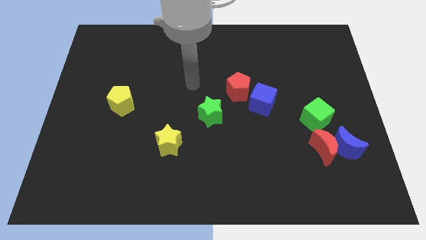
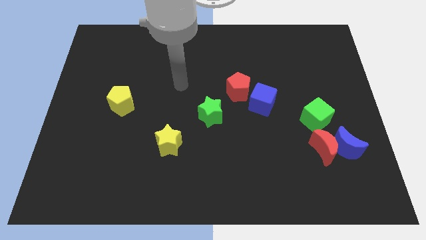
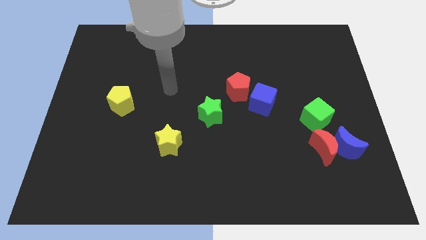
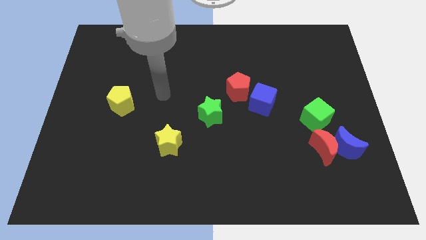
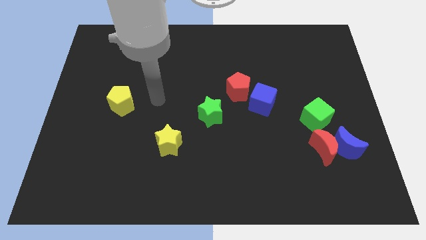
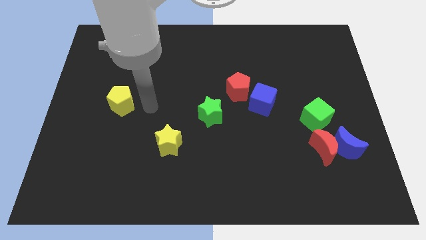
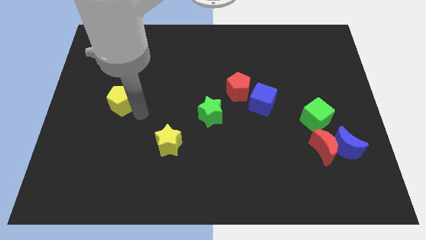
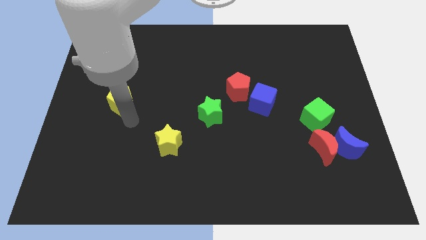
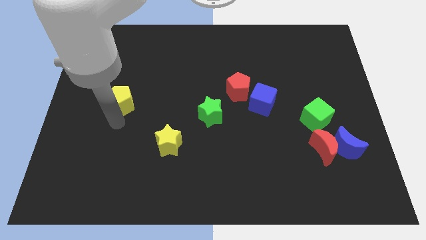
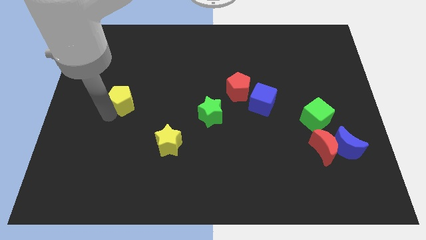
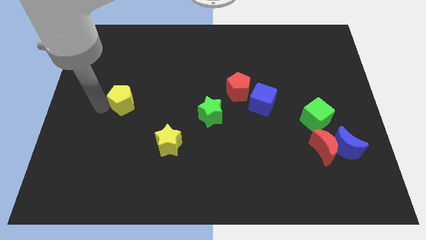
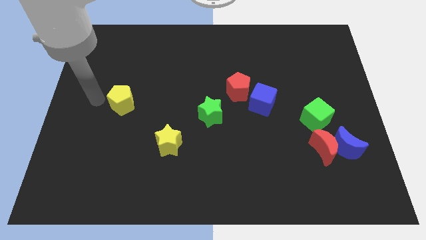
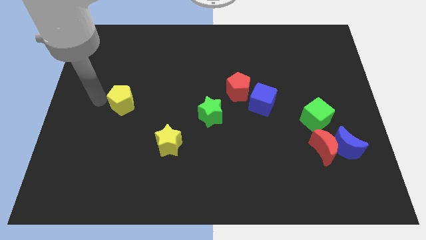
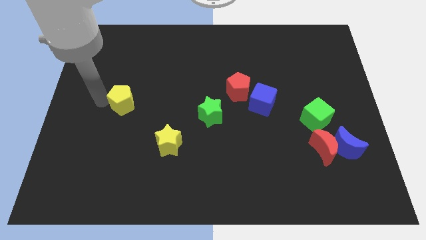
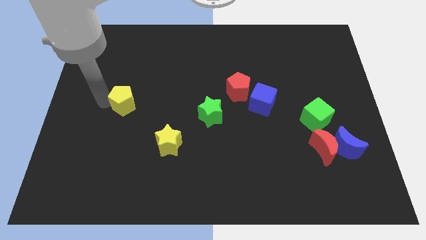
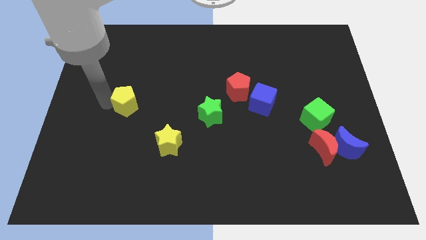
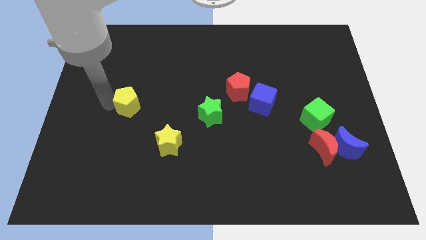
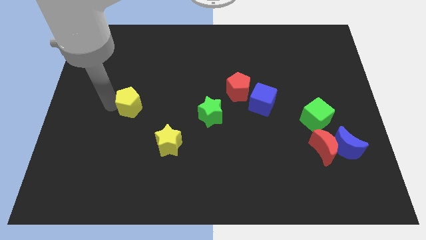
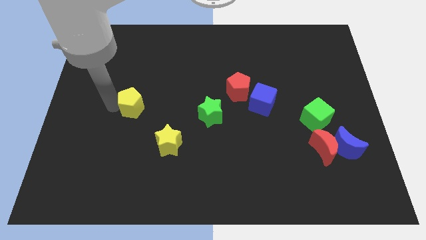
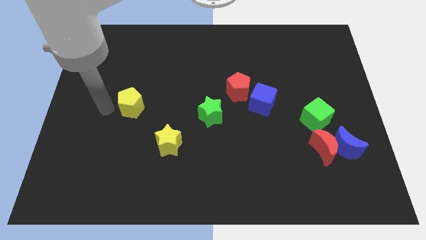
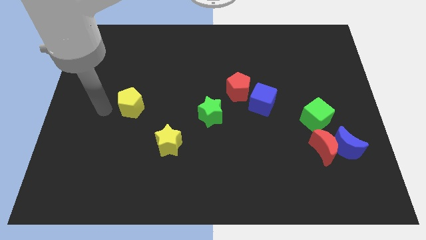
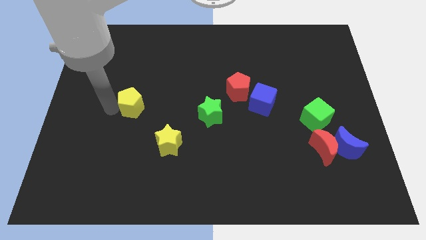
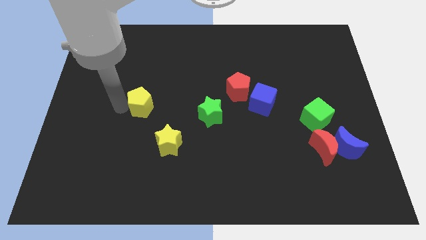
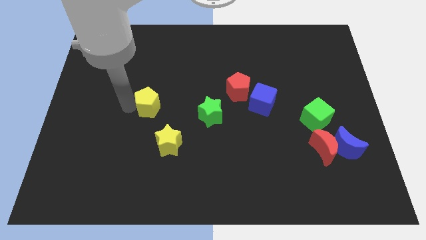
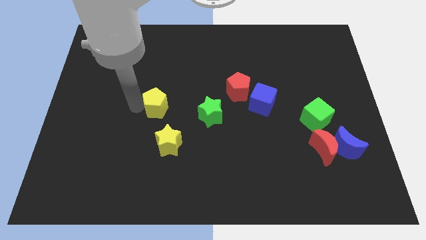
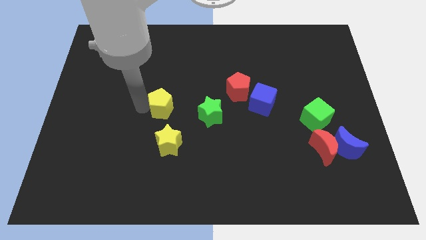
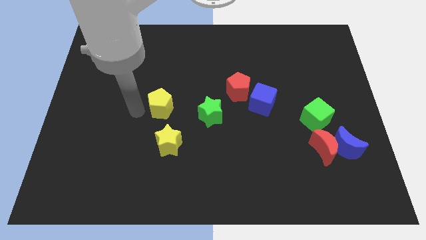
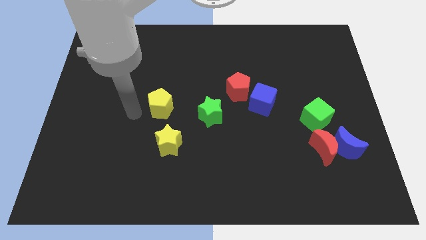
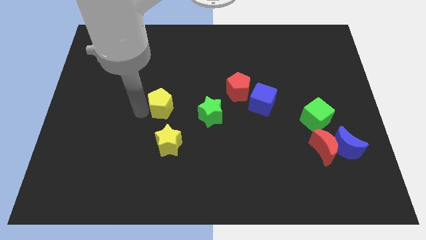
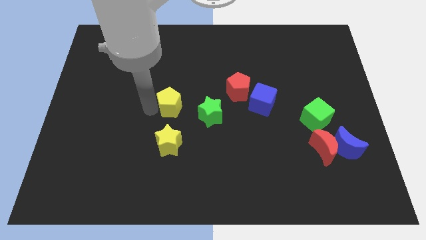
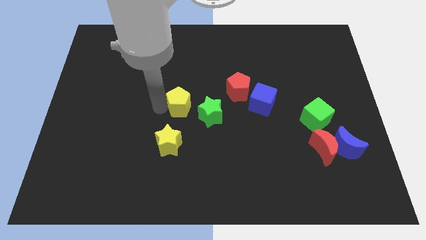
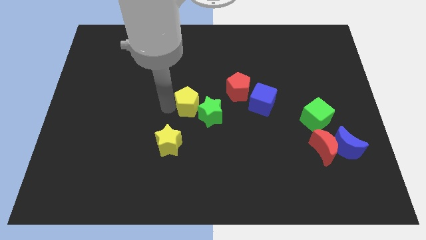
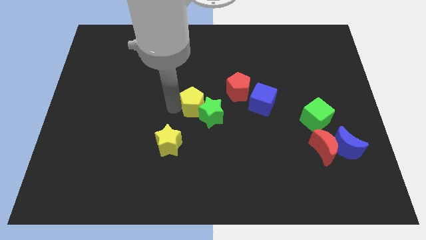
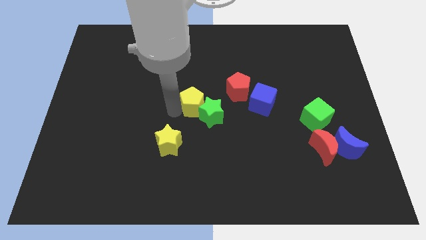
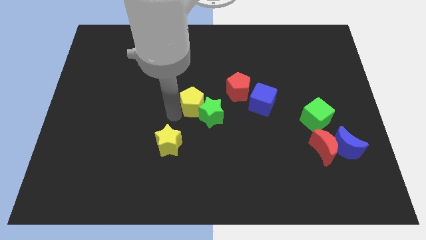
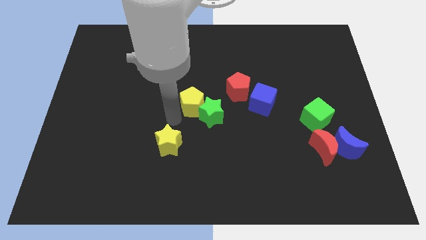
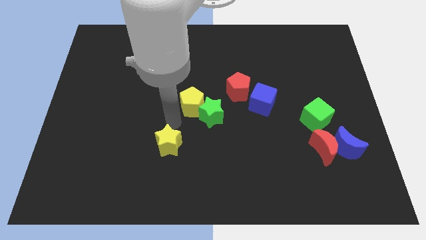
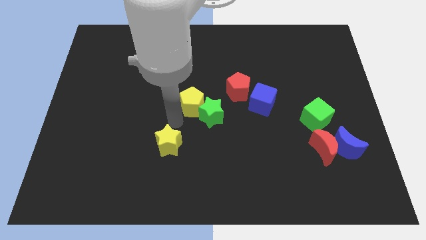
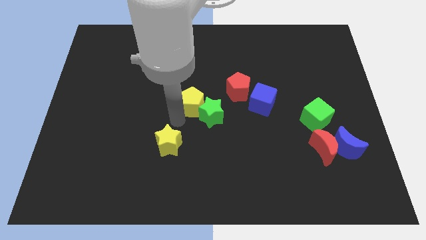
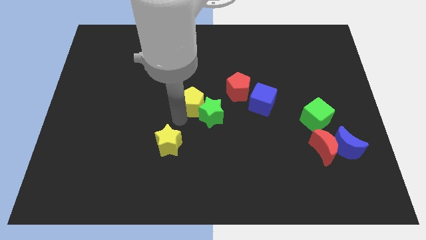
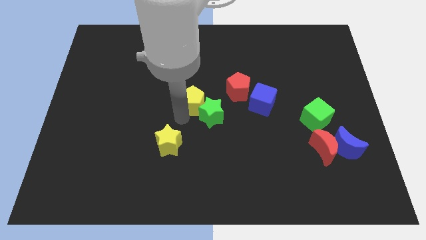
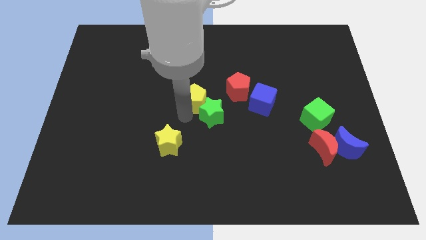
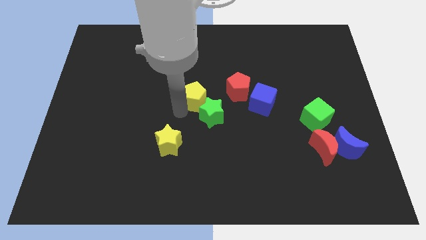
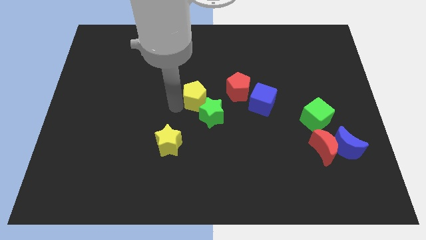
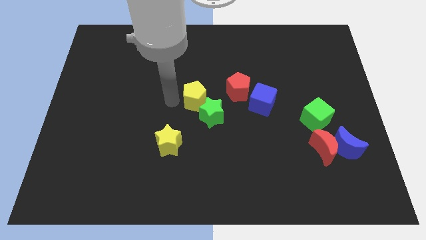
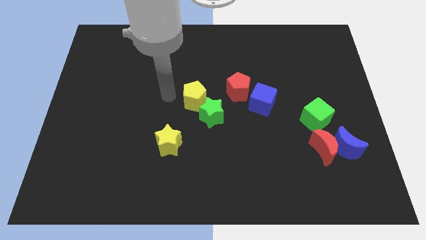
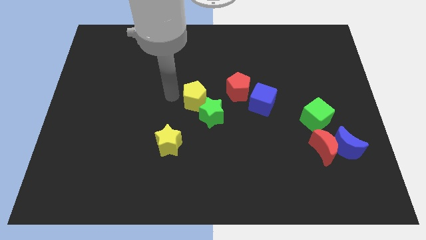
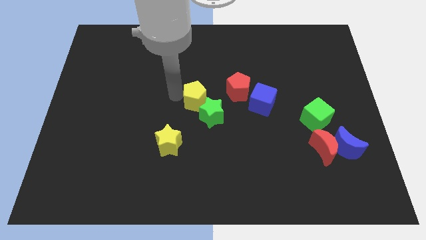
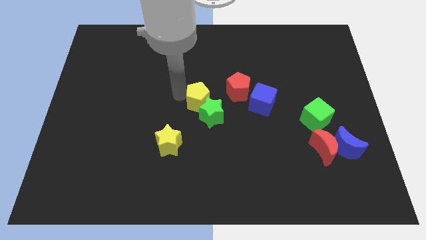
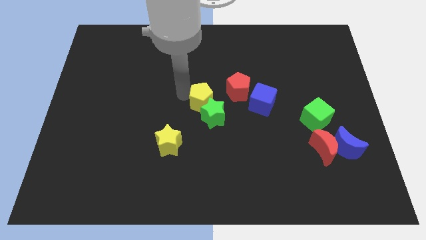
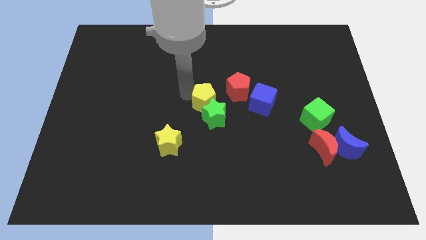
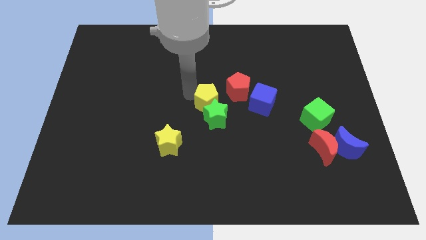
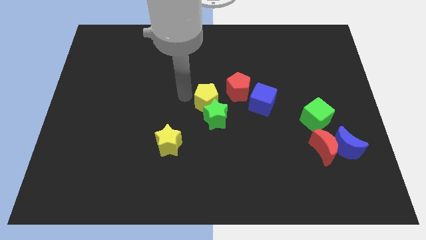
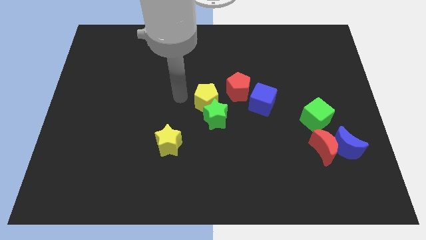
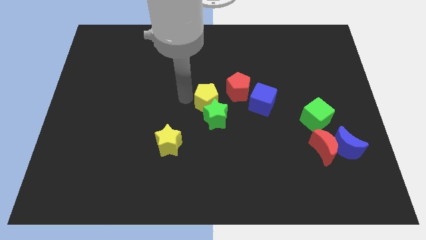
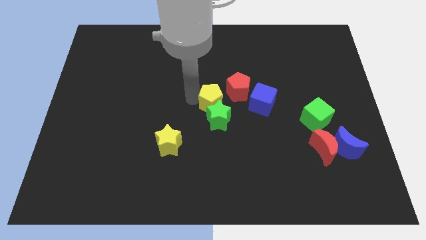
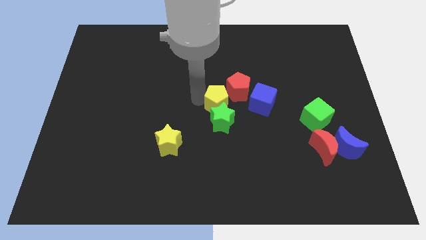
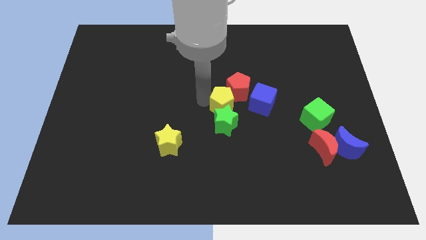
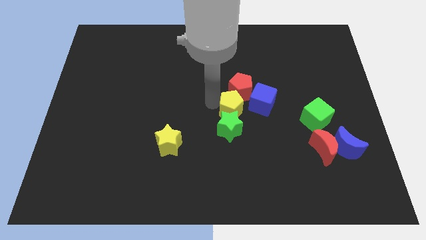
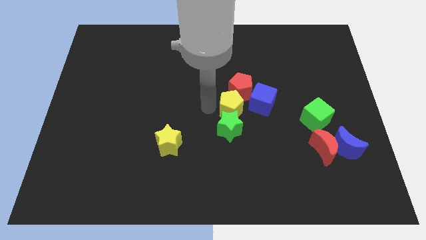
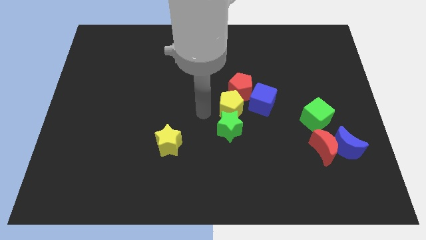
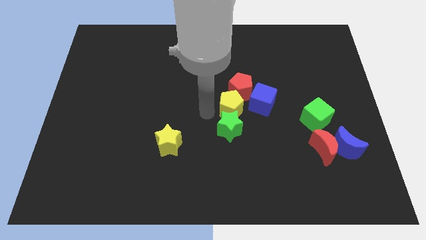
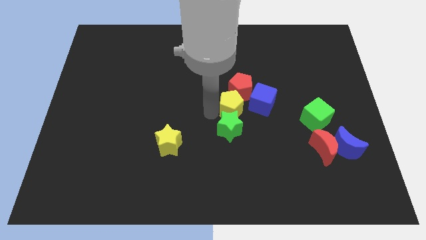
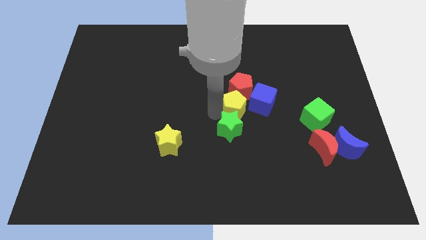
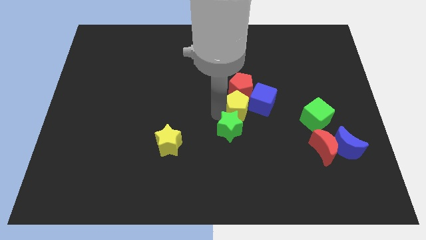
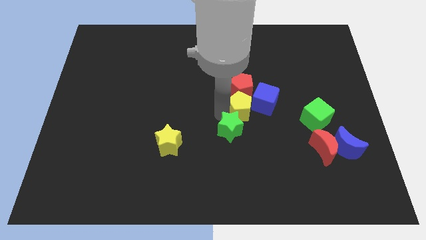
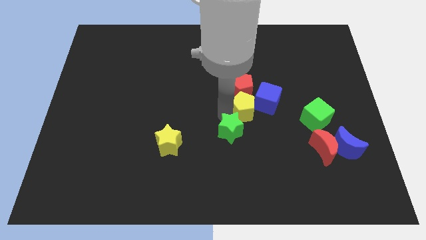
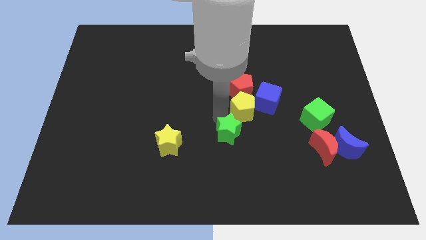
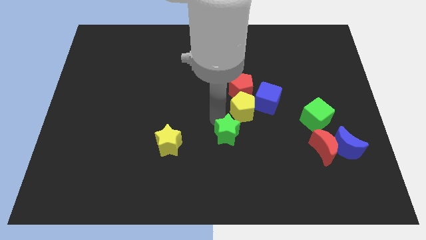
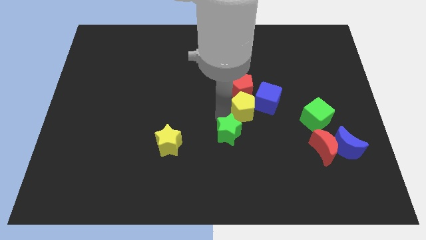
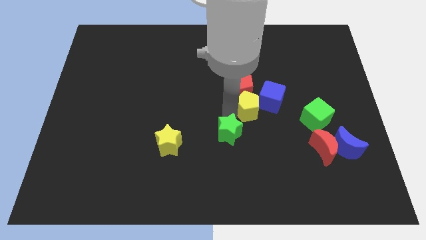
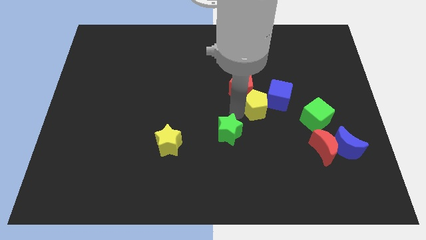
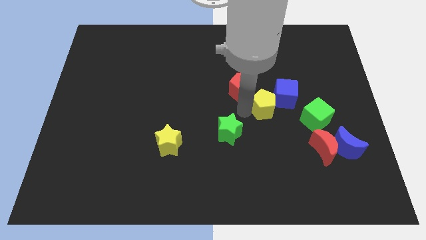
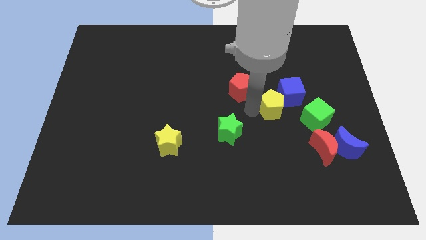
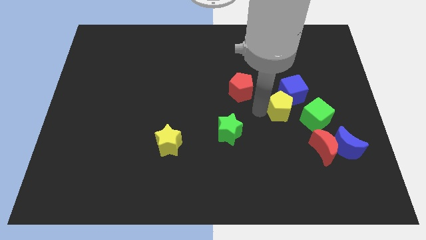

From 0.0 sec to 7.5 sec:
put the yellow pentagon close to the blue cube
